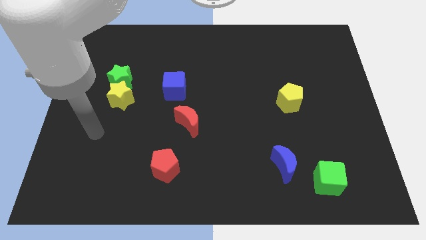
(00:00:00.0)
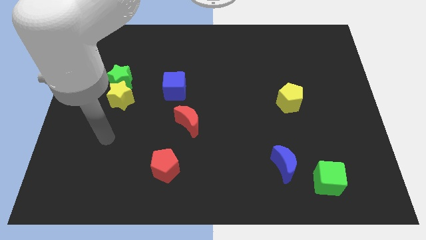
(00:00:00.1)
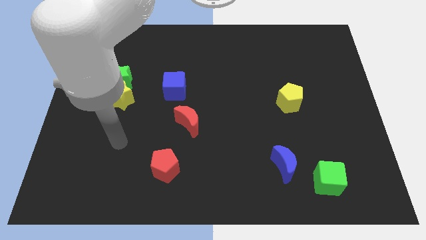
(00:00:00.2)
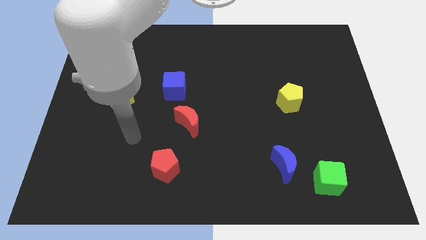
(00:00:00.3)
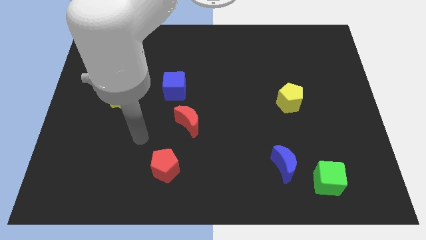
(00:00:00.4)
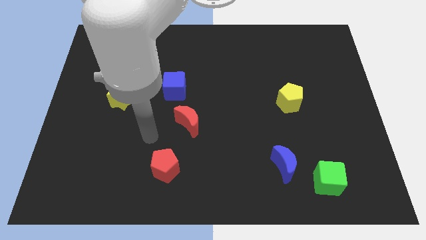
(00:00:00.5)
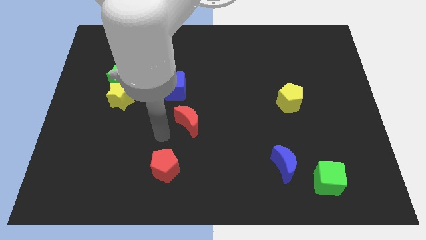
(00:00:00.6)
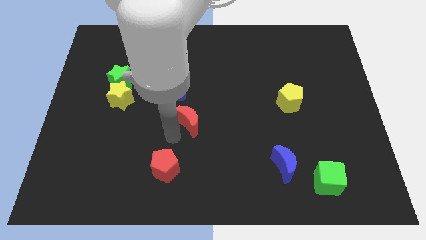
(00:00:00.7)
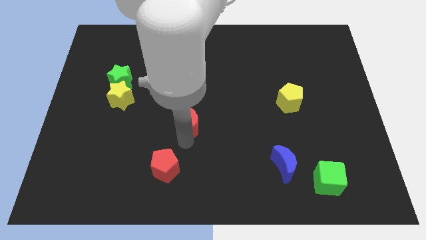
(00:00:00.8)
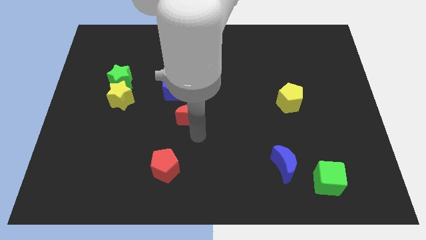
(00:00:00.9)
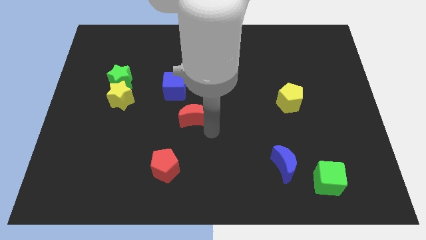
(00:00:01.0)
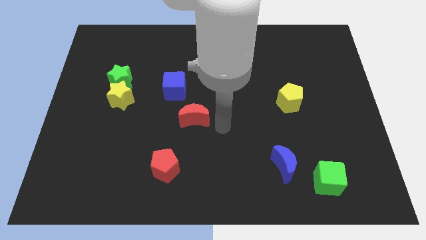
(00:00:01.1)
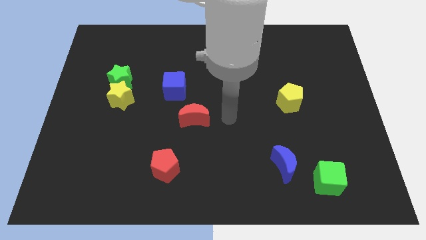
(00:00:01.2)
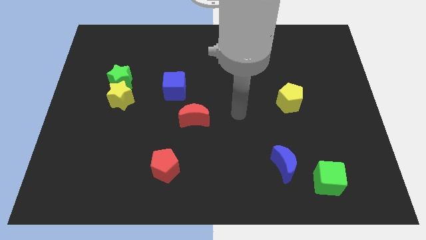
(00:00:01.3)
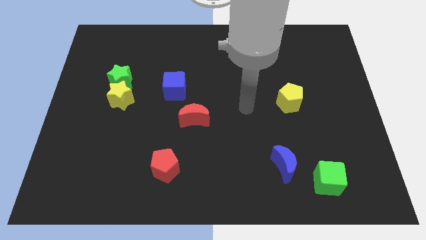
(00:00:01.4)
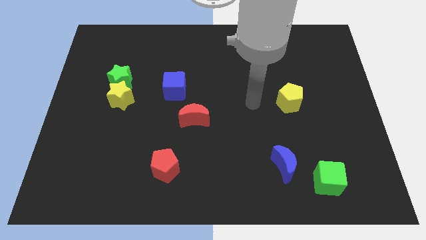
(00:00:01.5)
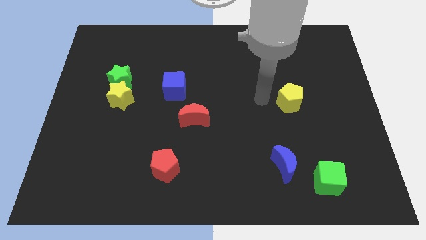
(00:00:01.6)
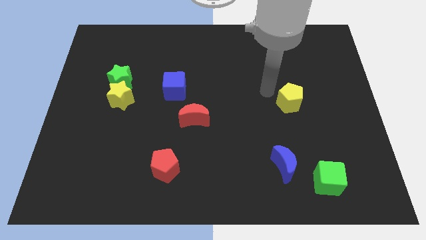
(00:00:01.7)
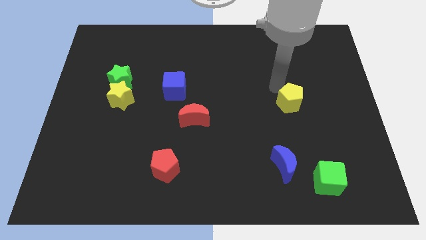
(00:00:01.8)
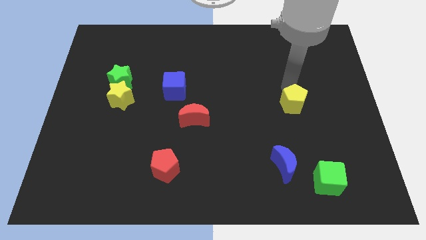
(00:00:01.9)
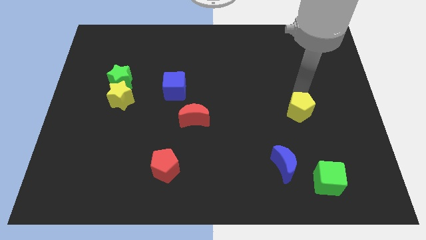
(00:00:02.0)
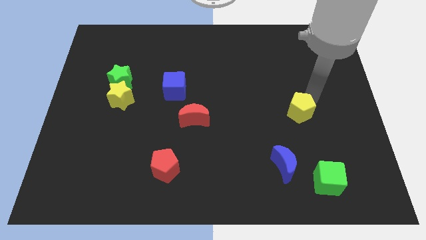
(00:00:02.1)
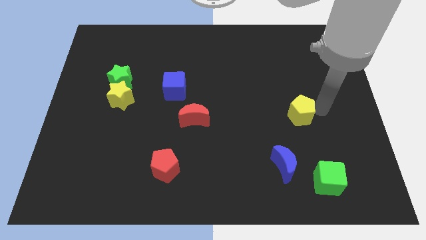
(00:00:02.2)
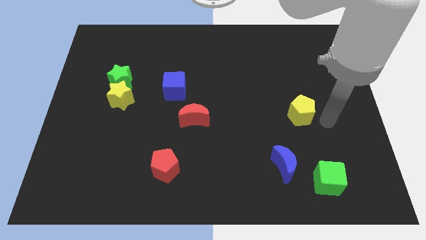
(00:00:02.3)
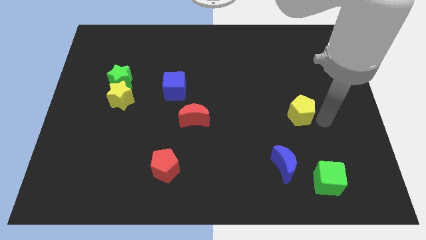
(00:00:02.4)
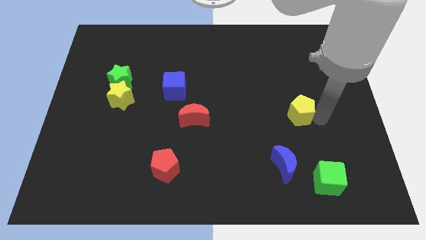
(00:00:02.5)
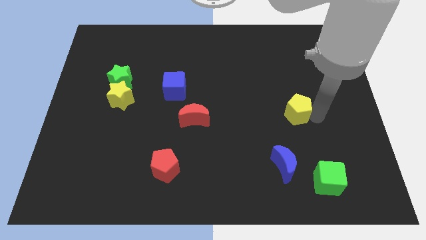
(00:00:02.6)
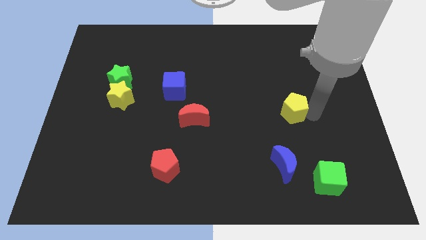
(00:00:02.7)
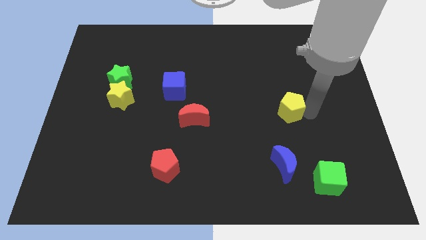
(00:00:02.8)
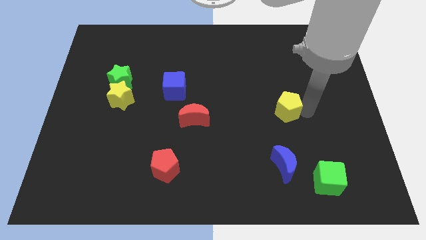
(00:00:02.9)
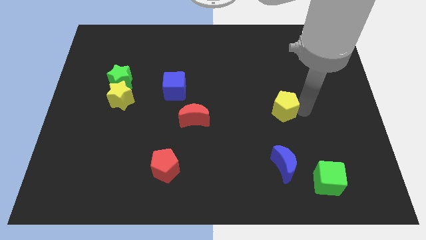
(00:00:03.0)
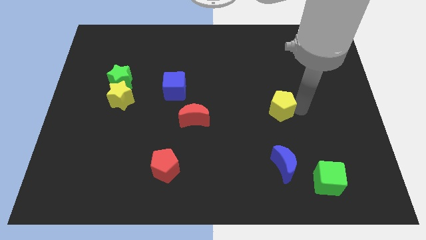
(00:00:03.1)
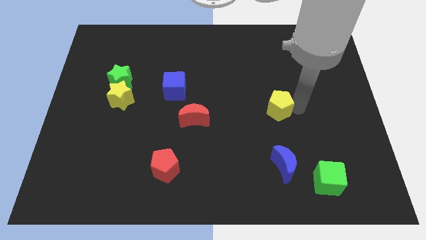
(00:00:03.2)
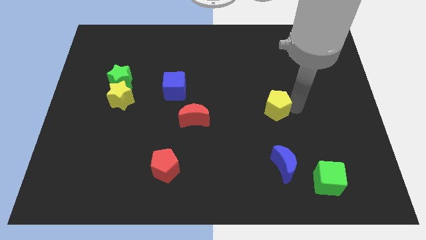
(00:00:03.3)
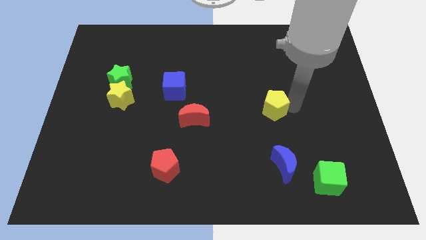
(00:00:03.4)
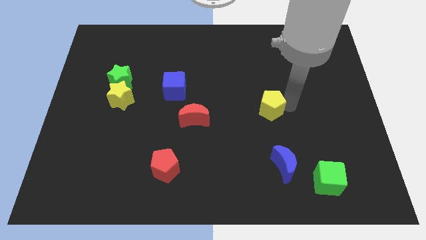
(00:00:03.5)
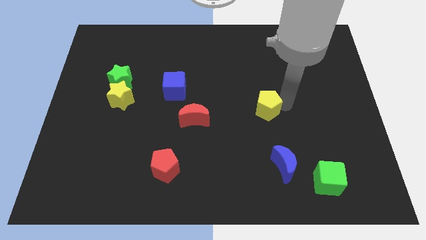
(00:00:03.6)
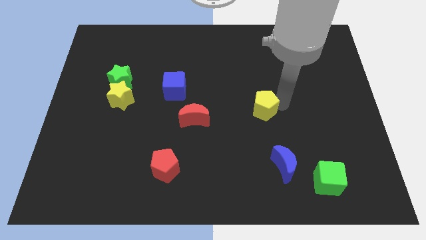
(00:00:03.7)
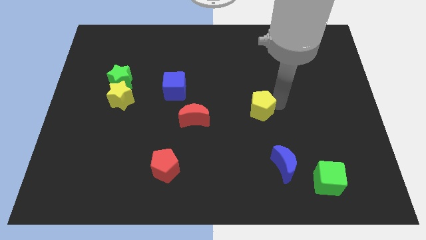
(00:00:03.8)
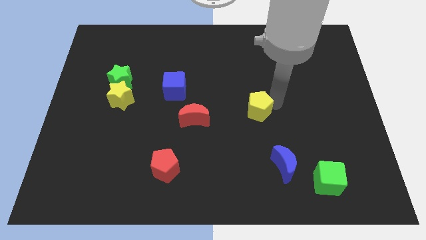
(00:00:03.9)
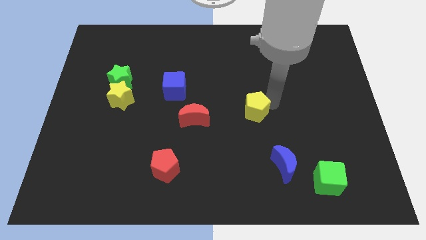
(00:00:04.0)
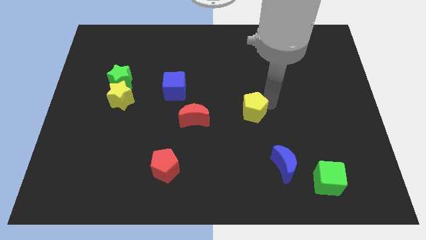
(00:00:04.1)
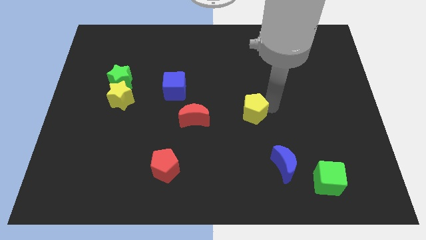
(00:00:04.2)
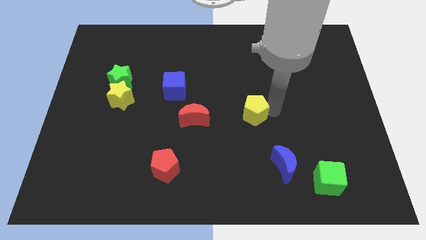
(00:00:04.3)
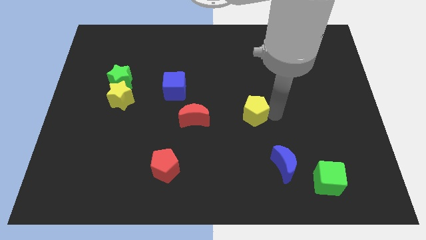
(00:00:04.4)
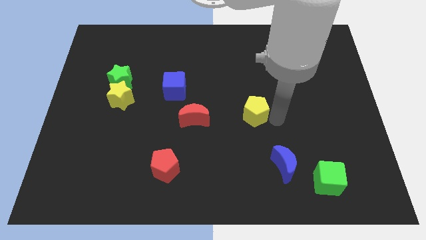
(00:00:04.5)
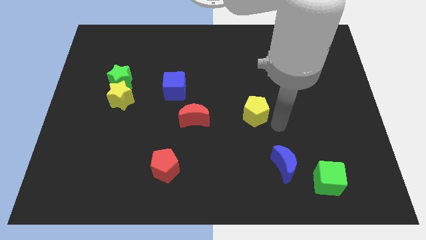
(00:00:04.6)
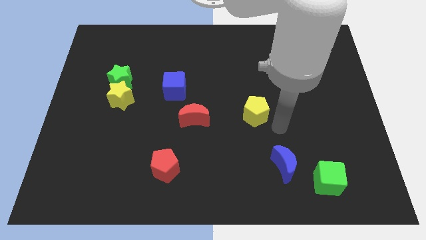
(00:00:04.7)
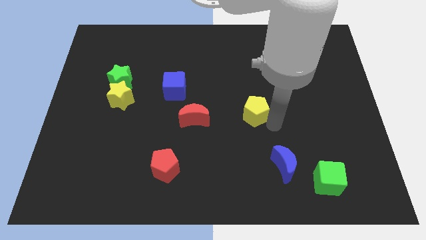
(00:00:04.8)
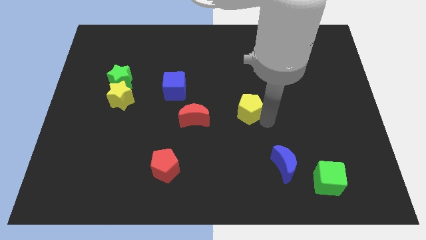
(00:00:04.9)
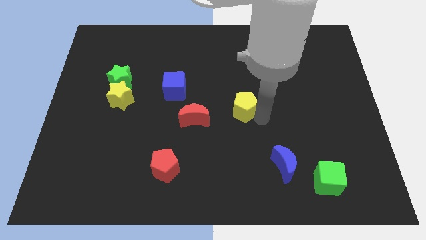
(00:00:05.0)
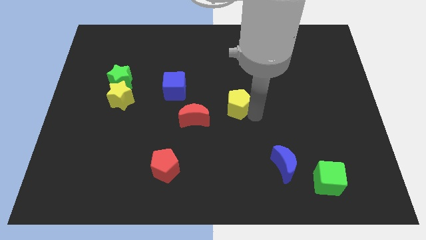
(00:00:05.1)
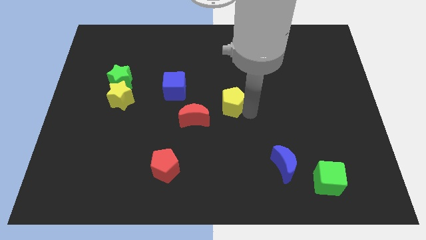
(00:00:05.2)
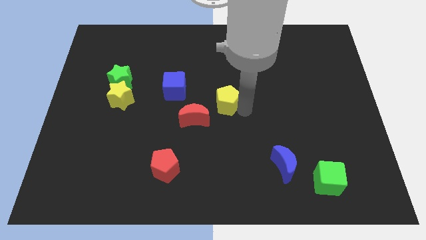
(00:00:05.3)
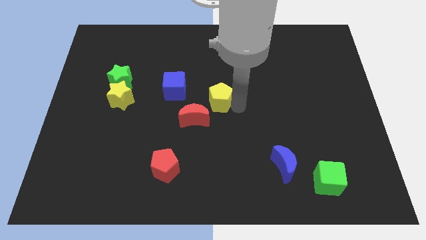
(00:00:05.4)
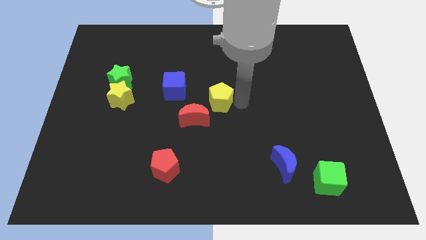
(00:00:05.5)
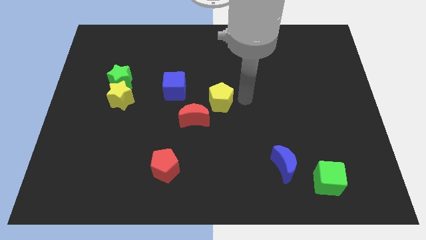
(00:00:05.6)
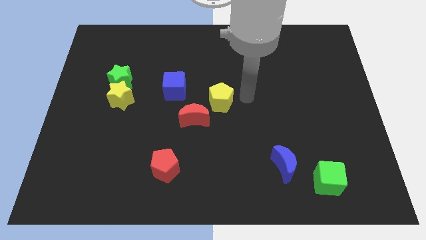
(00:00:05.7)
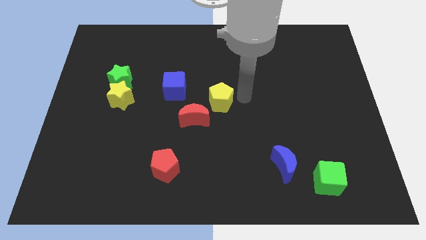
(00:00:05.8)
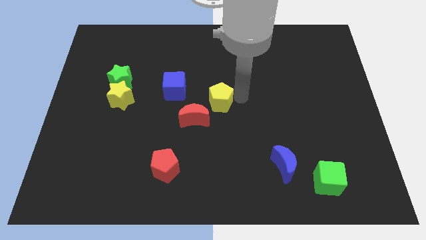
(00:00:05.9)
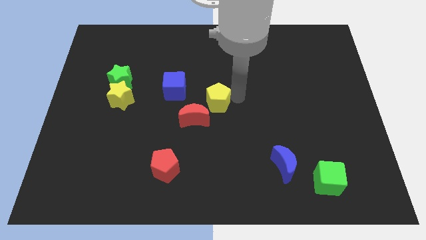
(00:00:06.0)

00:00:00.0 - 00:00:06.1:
put the yellow pentagon diagonally down and to the right of the blue cube

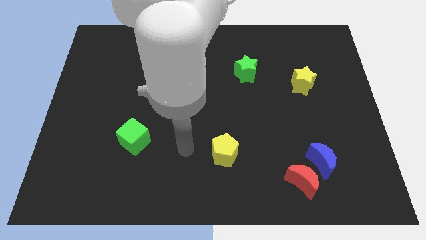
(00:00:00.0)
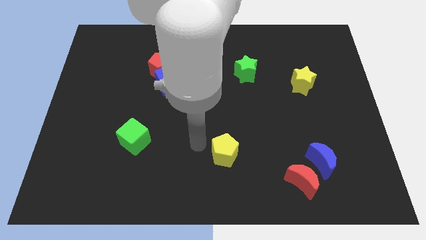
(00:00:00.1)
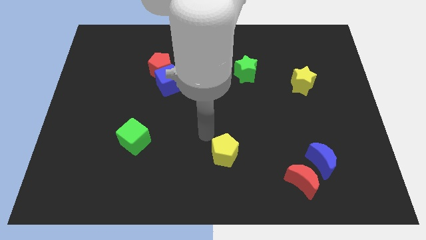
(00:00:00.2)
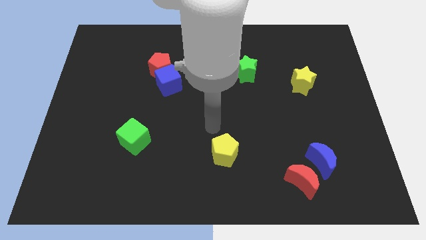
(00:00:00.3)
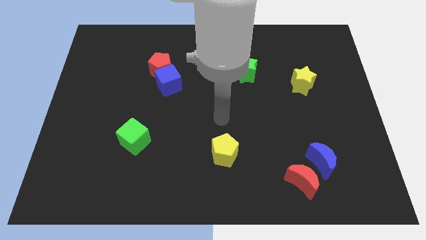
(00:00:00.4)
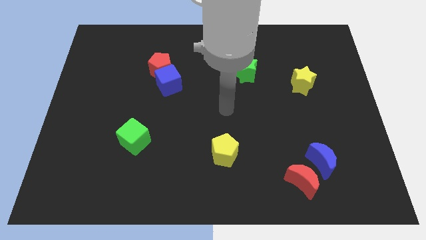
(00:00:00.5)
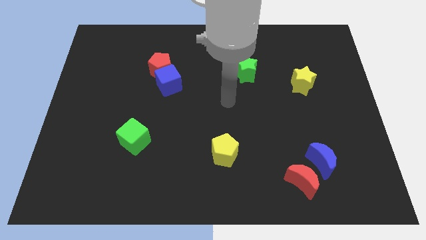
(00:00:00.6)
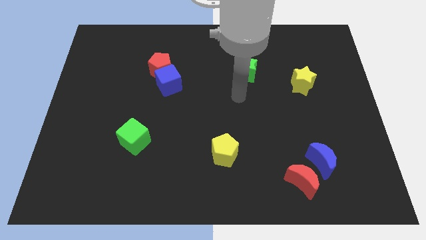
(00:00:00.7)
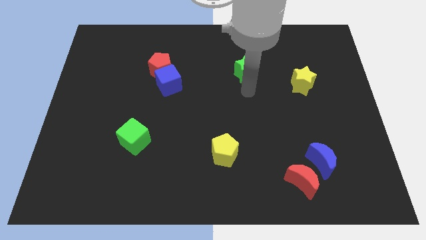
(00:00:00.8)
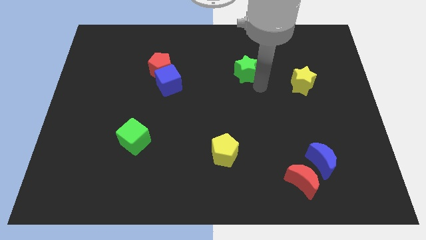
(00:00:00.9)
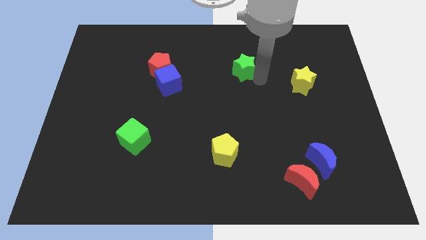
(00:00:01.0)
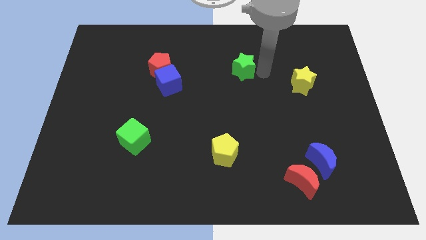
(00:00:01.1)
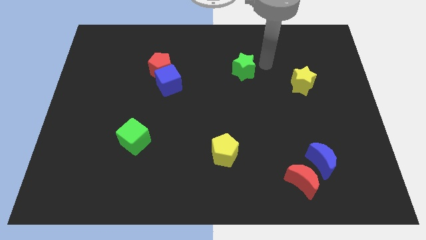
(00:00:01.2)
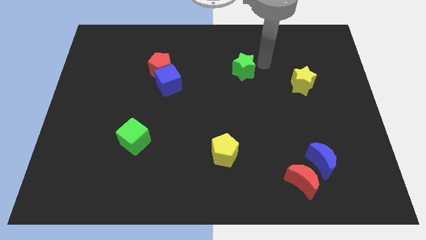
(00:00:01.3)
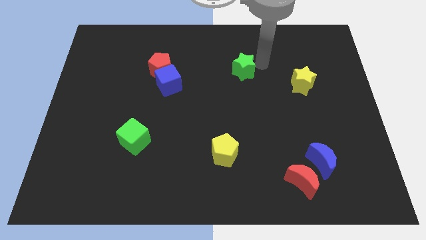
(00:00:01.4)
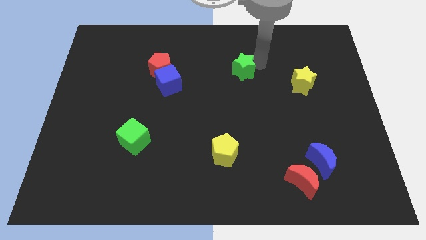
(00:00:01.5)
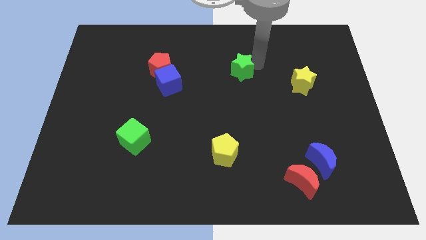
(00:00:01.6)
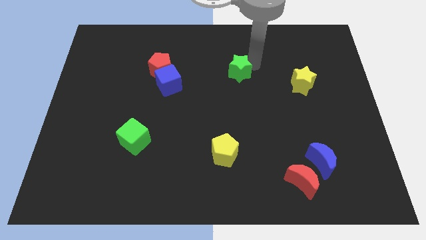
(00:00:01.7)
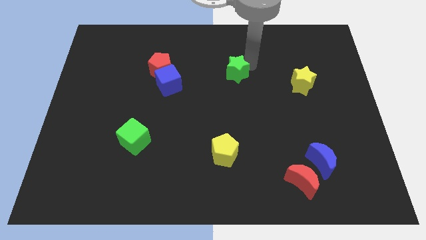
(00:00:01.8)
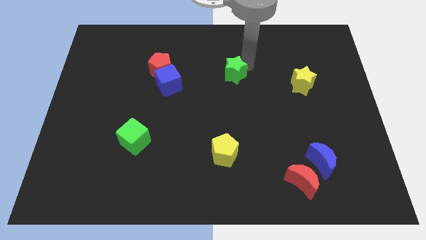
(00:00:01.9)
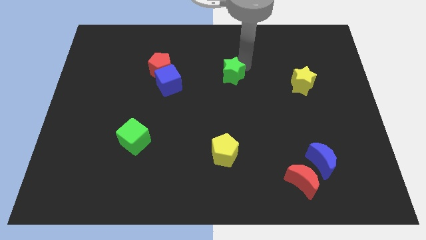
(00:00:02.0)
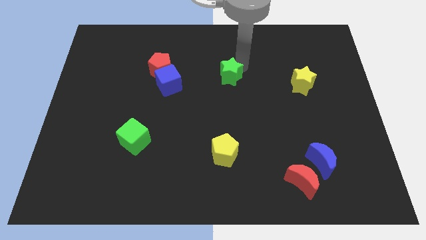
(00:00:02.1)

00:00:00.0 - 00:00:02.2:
push the green star to the right of the blue cube
